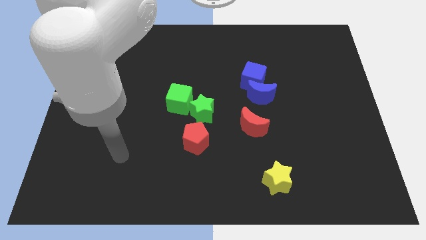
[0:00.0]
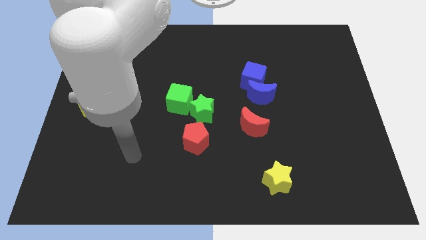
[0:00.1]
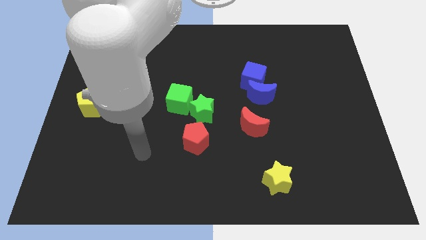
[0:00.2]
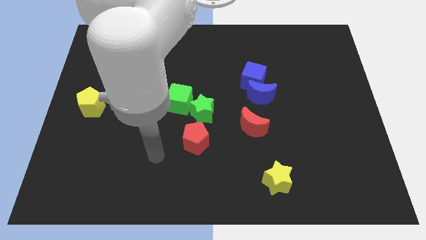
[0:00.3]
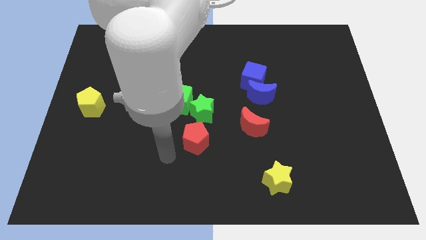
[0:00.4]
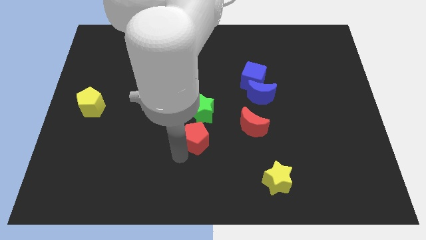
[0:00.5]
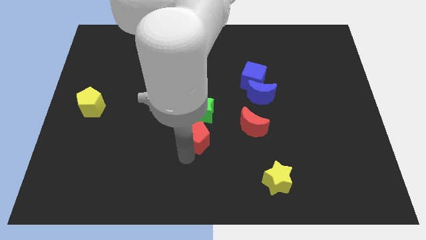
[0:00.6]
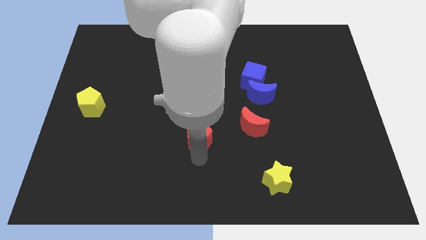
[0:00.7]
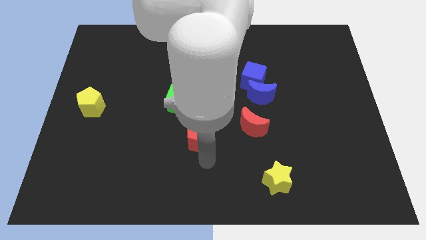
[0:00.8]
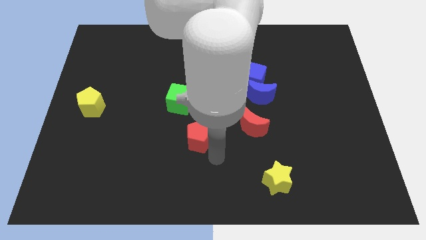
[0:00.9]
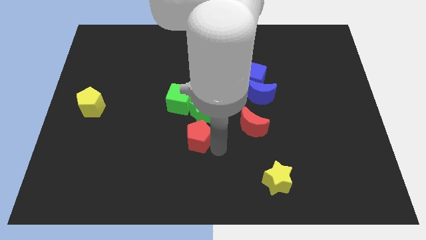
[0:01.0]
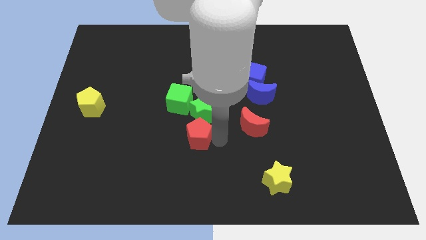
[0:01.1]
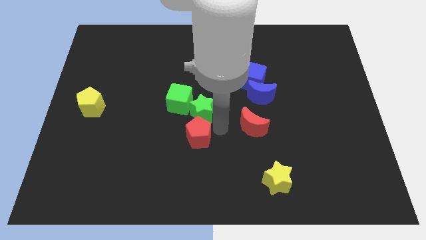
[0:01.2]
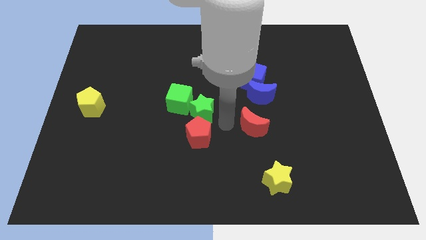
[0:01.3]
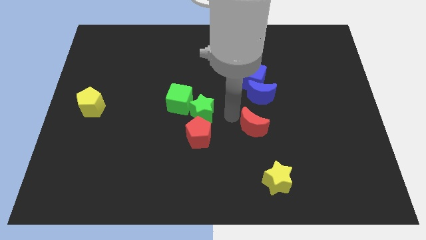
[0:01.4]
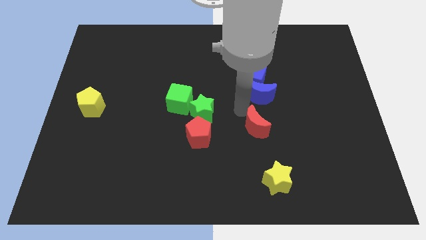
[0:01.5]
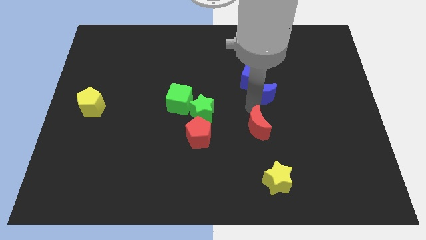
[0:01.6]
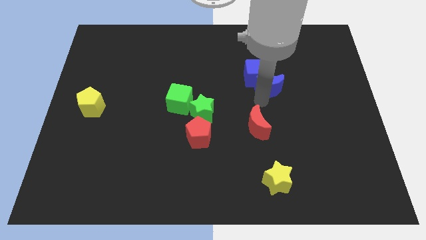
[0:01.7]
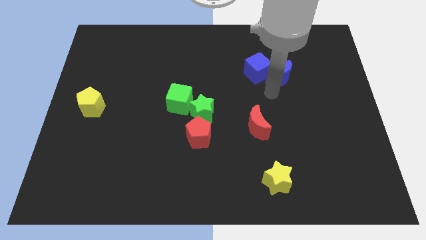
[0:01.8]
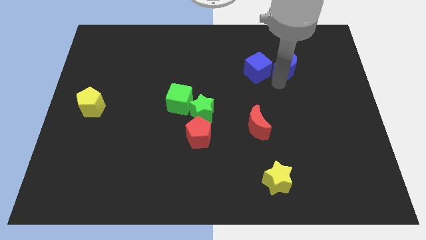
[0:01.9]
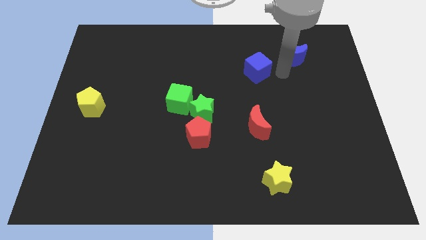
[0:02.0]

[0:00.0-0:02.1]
move the blue cube away from the blue moon

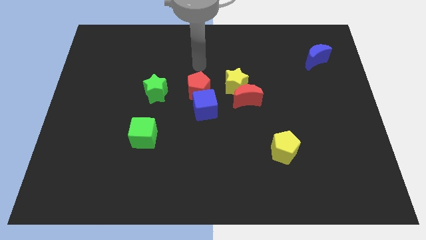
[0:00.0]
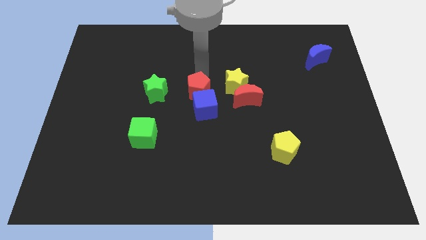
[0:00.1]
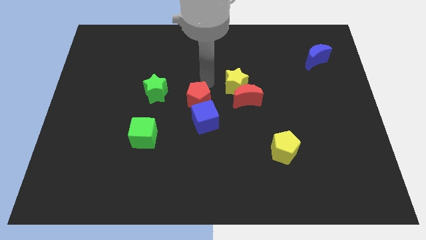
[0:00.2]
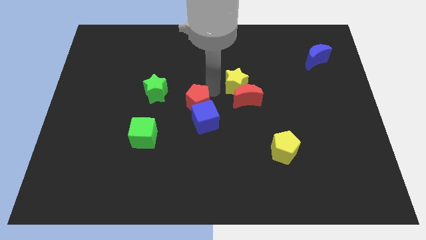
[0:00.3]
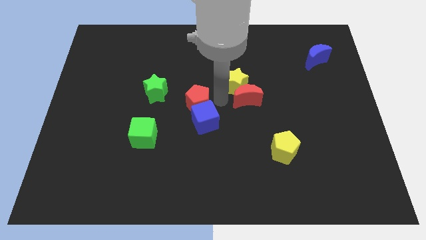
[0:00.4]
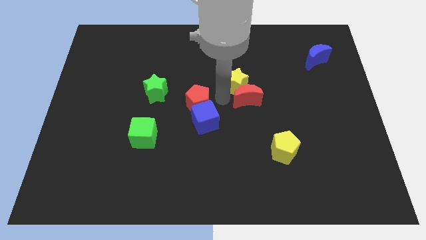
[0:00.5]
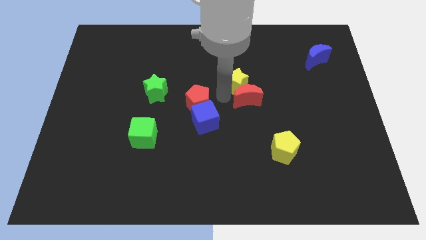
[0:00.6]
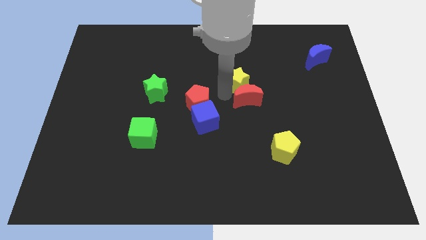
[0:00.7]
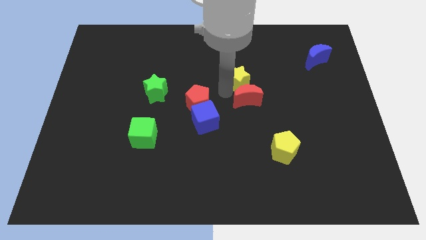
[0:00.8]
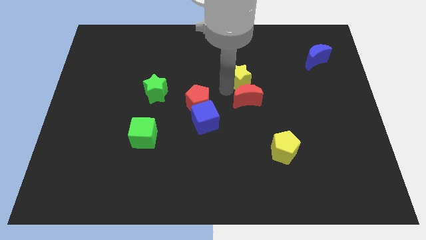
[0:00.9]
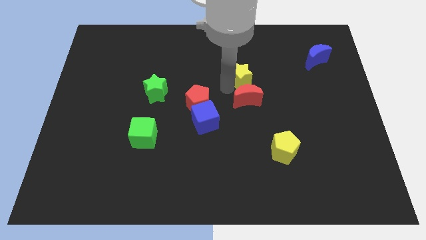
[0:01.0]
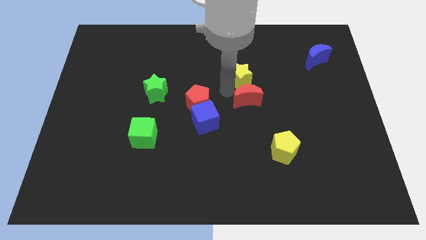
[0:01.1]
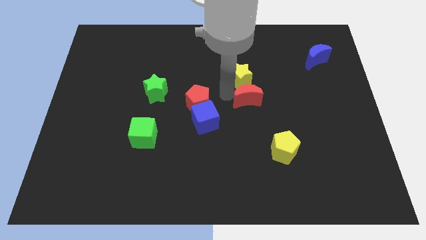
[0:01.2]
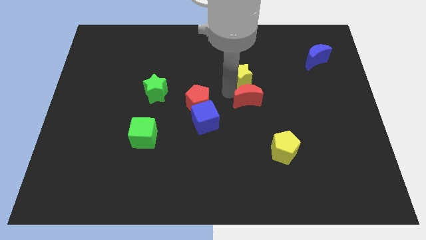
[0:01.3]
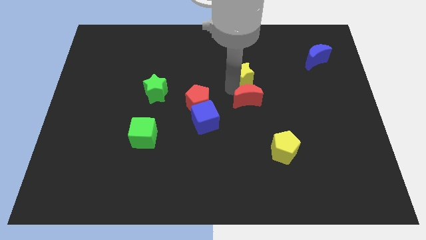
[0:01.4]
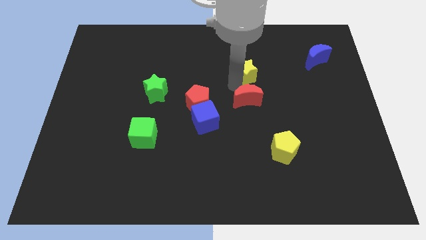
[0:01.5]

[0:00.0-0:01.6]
pull the yellow star apart from the red moon and red pentagon

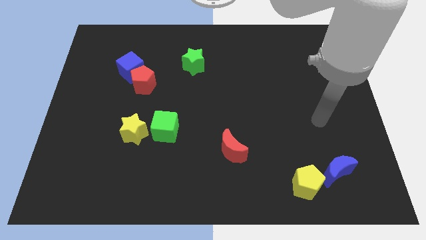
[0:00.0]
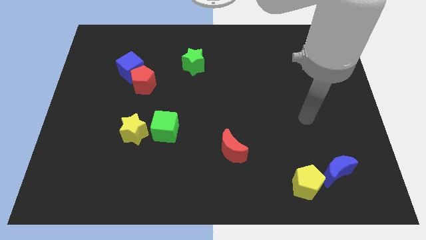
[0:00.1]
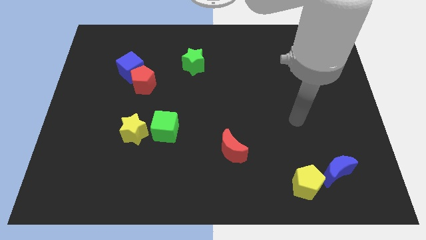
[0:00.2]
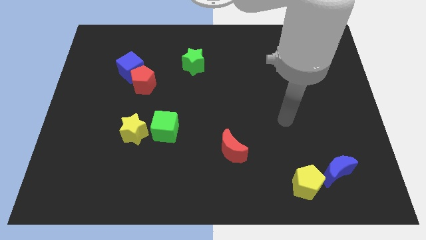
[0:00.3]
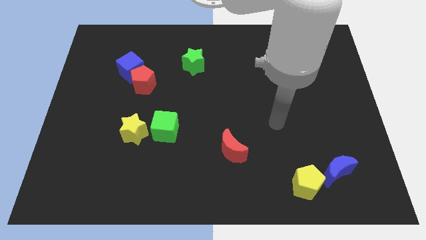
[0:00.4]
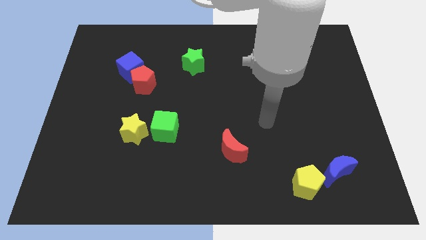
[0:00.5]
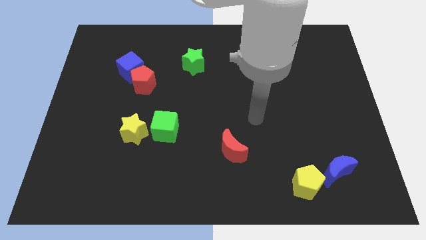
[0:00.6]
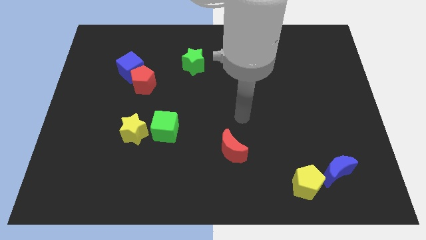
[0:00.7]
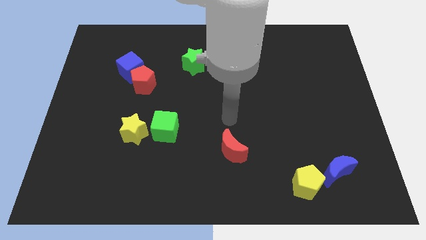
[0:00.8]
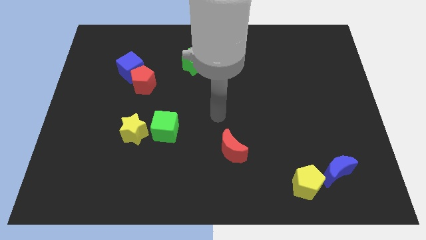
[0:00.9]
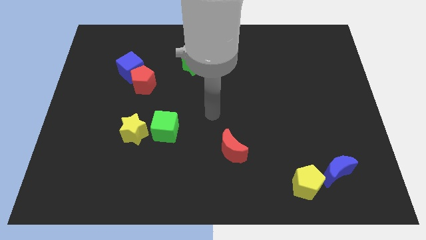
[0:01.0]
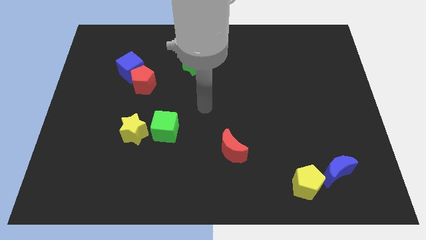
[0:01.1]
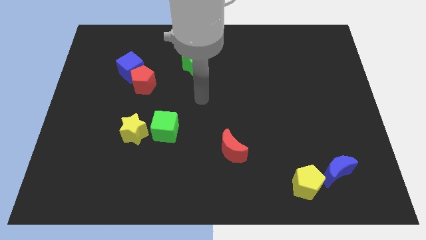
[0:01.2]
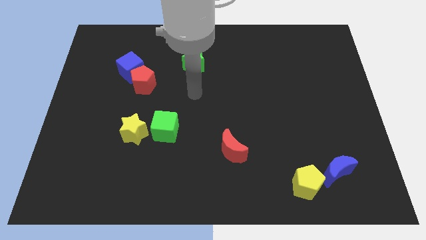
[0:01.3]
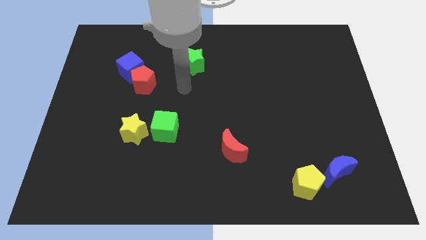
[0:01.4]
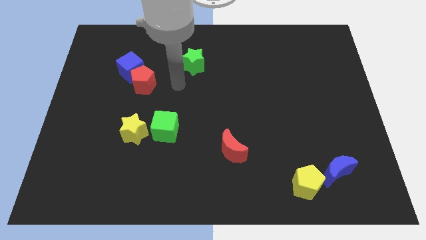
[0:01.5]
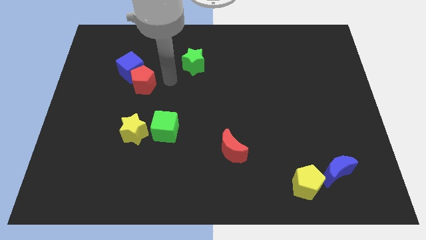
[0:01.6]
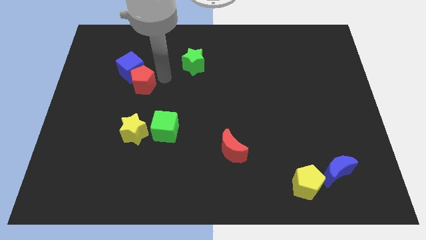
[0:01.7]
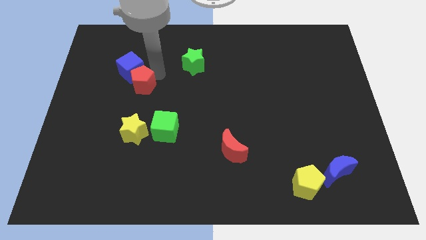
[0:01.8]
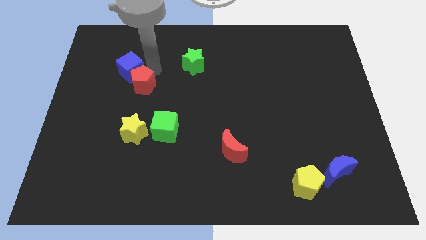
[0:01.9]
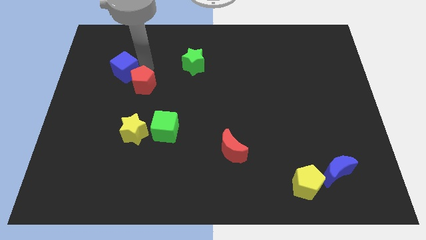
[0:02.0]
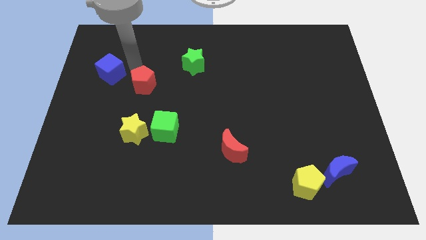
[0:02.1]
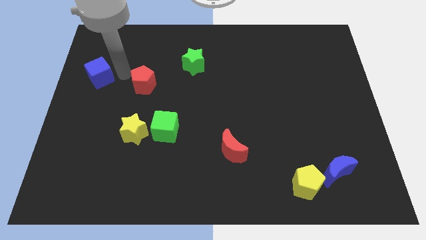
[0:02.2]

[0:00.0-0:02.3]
pull the red pentagon apart from the blue cube

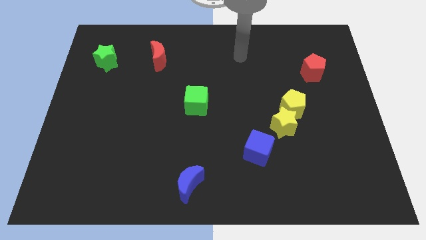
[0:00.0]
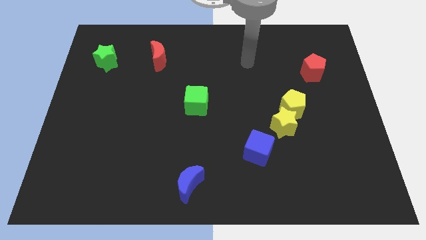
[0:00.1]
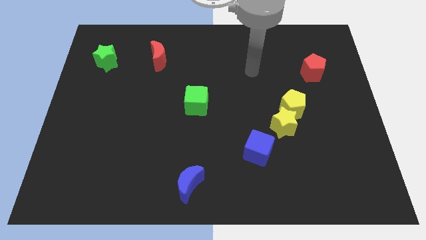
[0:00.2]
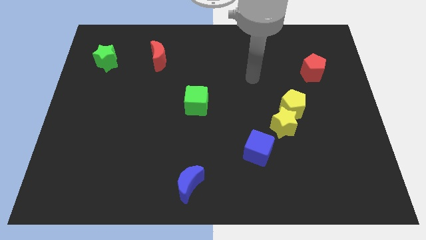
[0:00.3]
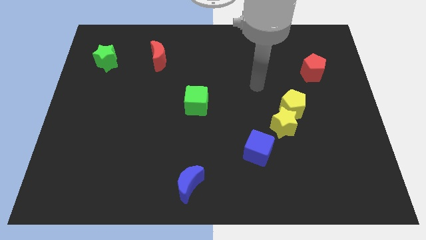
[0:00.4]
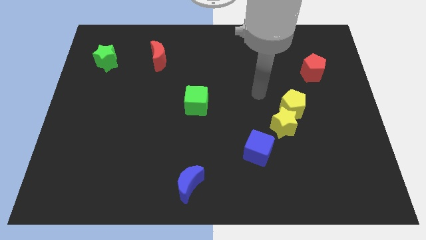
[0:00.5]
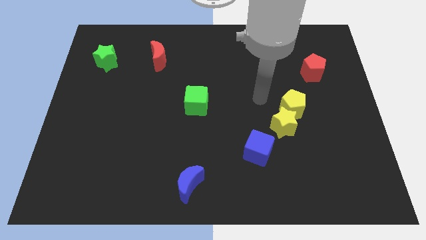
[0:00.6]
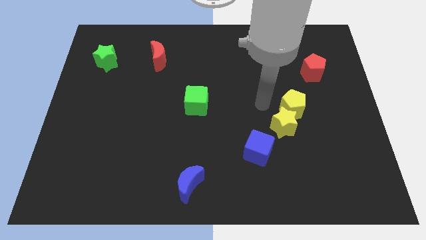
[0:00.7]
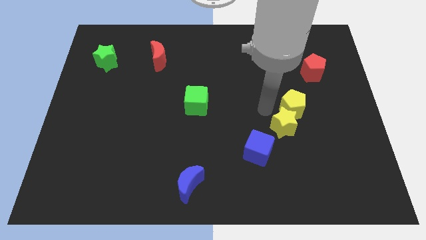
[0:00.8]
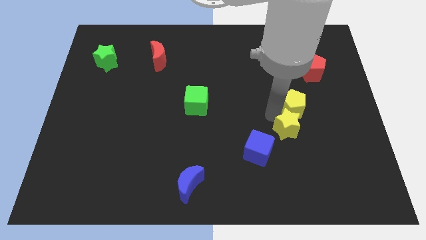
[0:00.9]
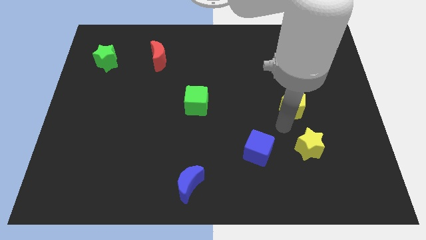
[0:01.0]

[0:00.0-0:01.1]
move the yellow pentagon away from the yellow star

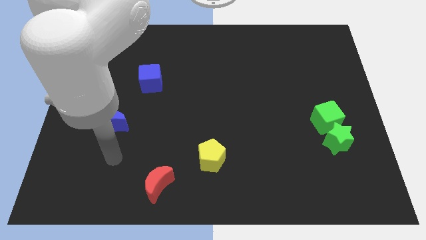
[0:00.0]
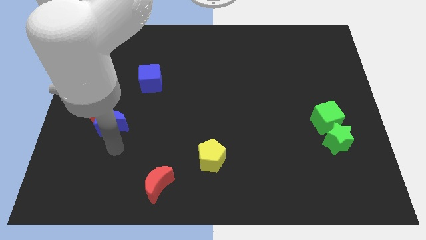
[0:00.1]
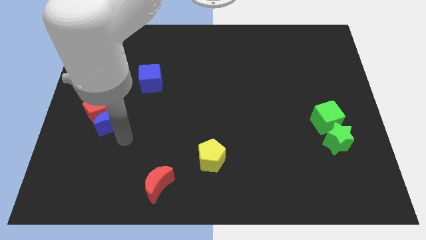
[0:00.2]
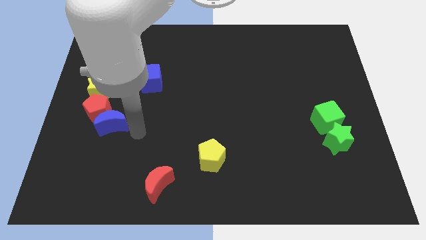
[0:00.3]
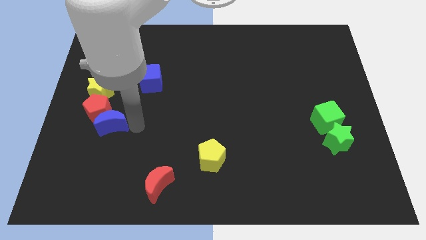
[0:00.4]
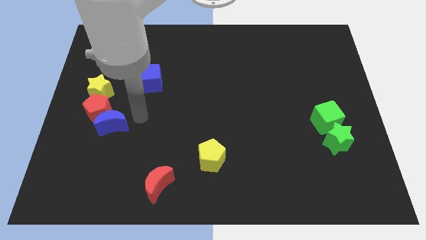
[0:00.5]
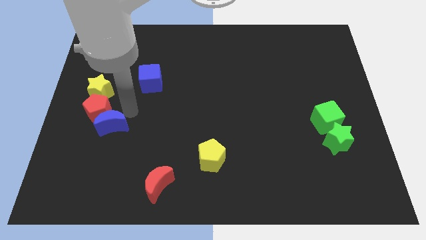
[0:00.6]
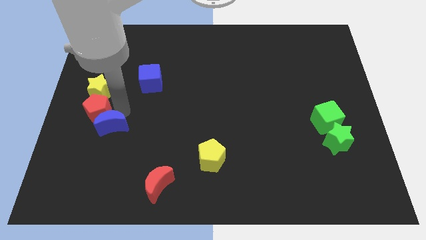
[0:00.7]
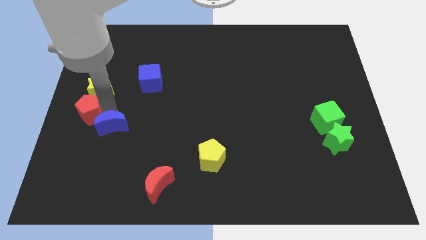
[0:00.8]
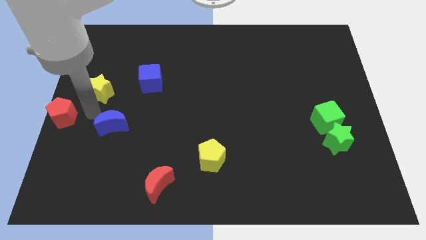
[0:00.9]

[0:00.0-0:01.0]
move the blue moon away from the red pentagon

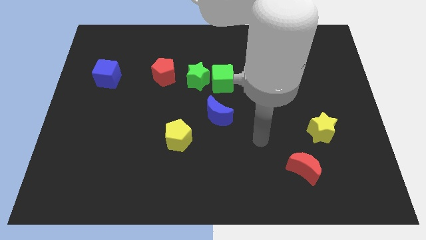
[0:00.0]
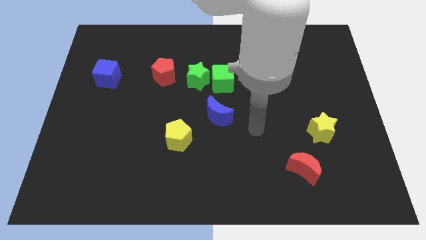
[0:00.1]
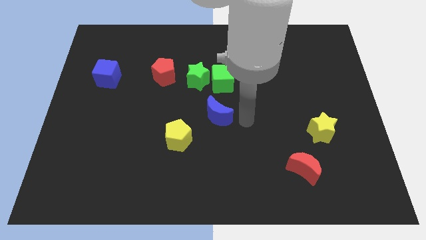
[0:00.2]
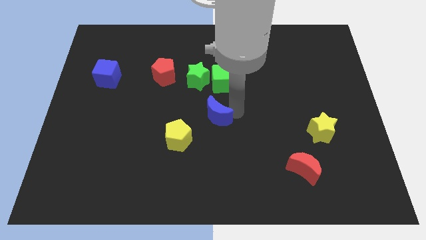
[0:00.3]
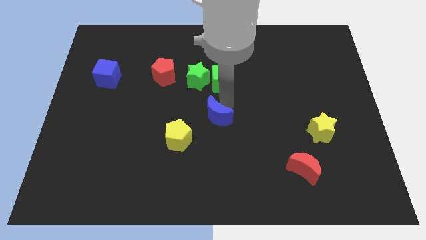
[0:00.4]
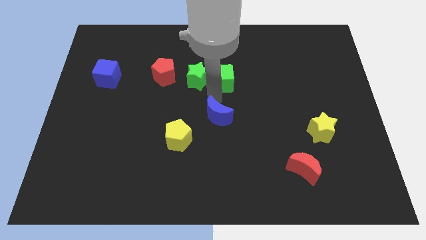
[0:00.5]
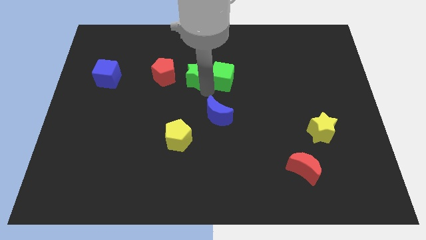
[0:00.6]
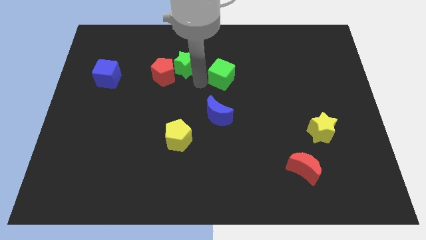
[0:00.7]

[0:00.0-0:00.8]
separate the green cube from the green star

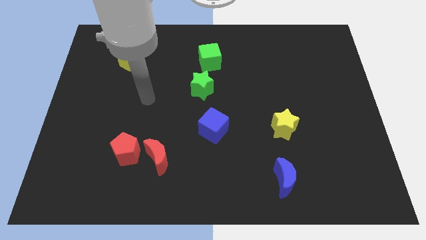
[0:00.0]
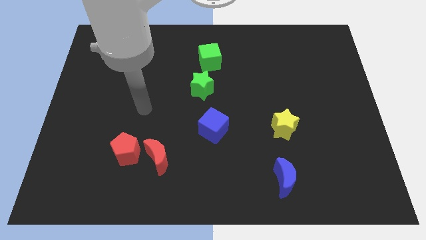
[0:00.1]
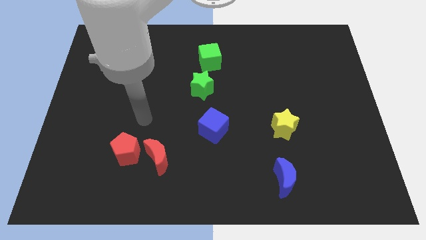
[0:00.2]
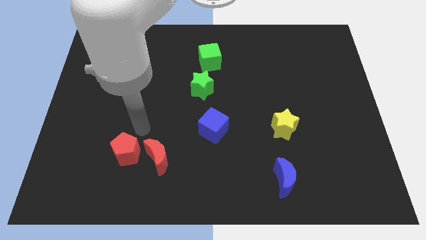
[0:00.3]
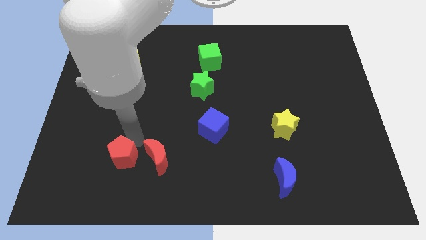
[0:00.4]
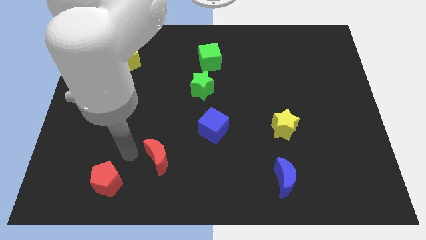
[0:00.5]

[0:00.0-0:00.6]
move the red moon away from the red pentagon
